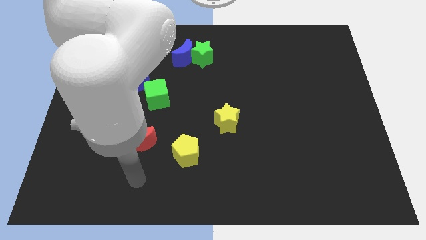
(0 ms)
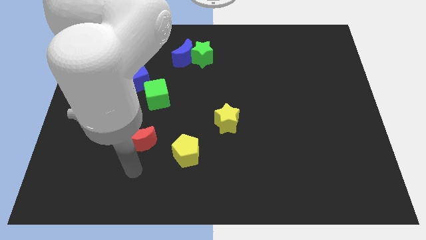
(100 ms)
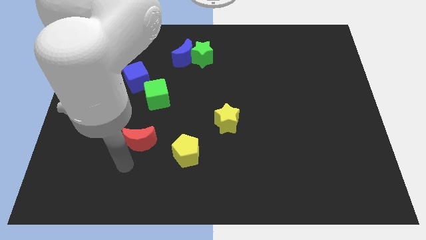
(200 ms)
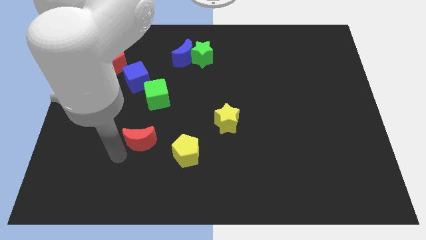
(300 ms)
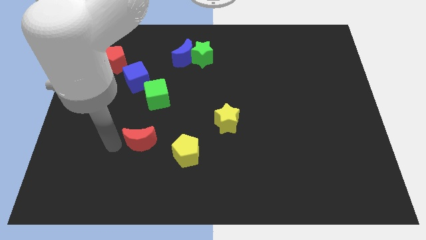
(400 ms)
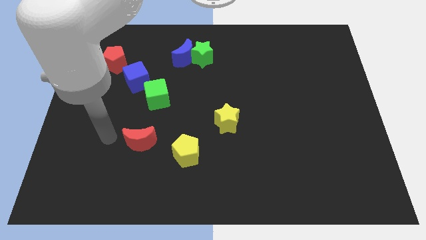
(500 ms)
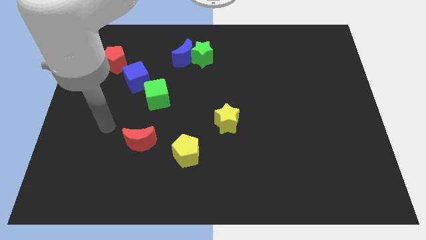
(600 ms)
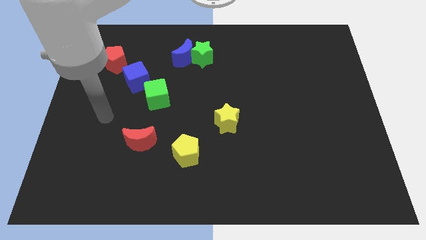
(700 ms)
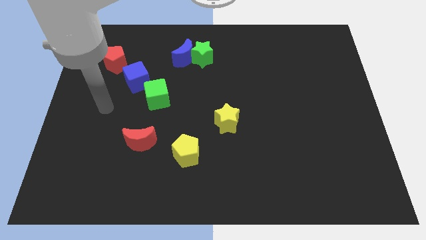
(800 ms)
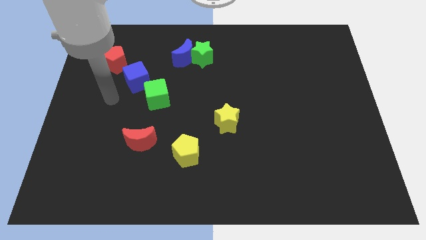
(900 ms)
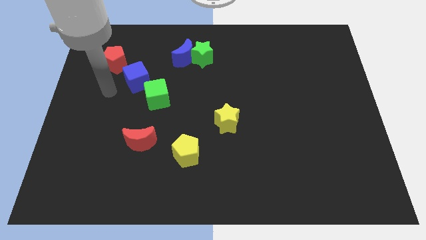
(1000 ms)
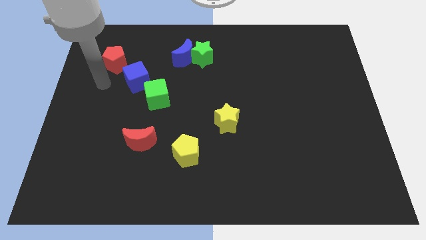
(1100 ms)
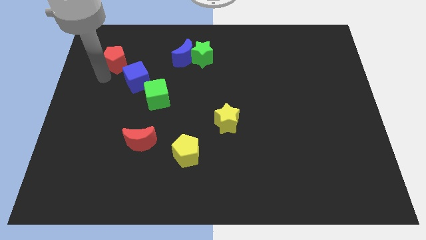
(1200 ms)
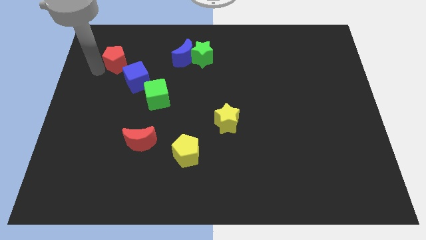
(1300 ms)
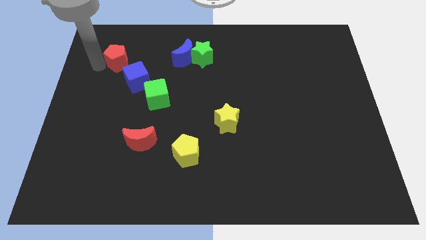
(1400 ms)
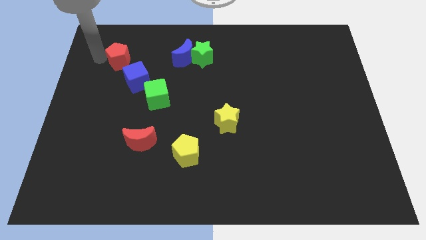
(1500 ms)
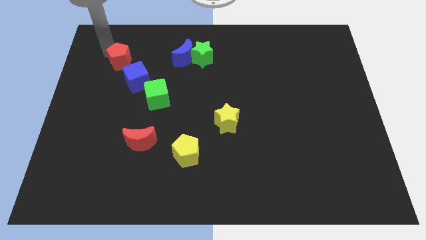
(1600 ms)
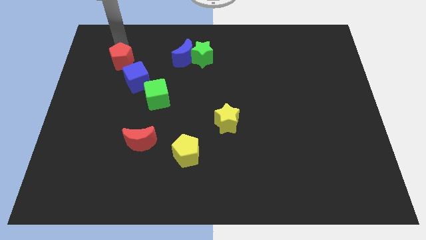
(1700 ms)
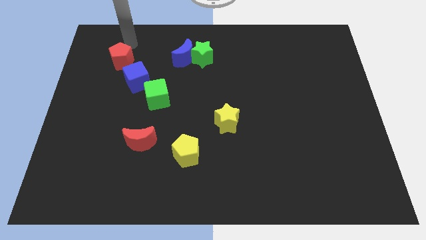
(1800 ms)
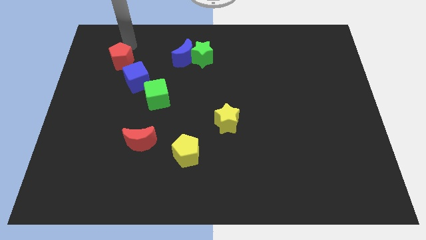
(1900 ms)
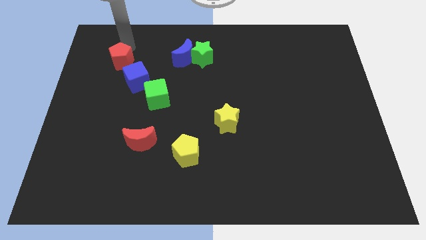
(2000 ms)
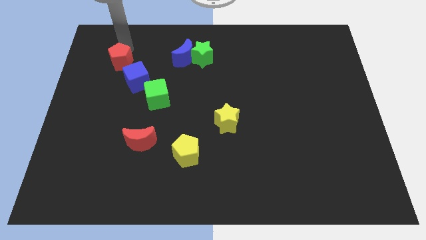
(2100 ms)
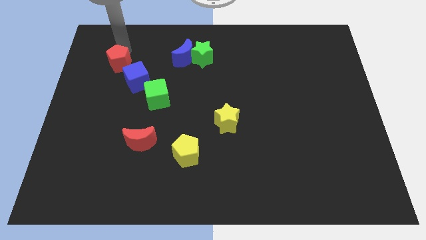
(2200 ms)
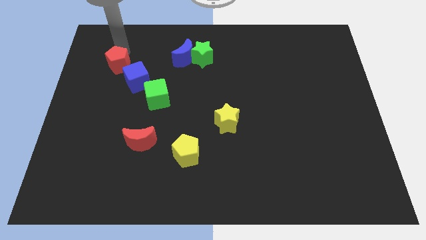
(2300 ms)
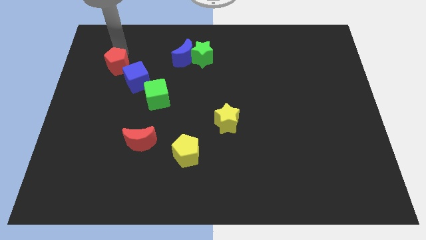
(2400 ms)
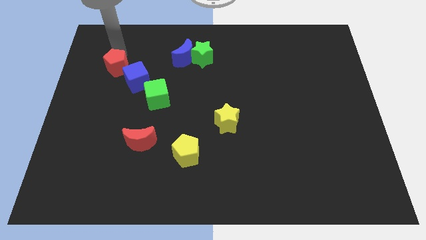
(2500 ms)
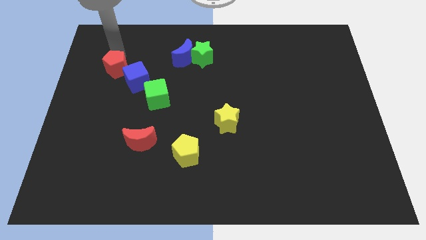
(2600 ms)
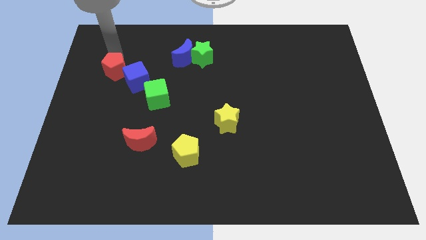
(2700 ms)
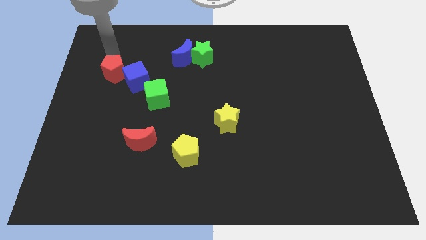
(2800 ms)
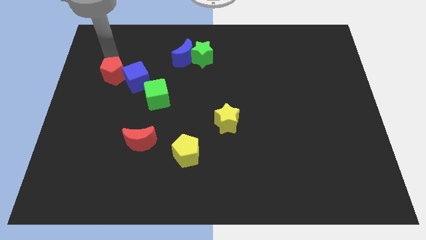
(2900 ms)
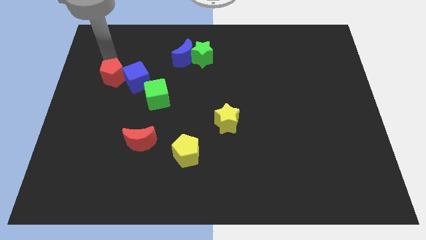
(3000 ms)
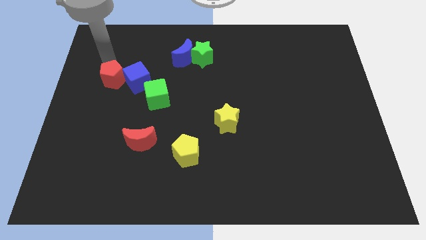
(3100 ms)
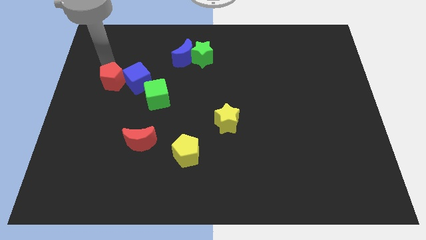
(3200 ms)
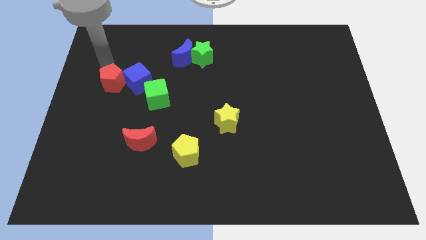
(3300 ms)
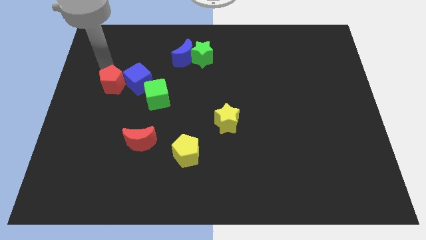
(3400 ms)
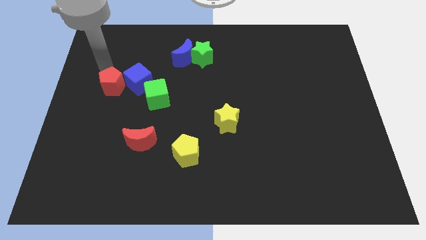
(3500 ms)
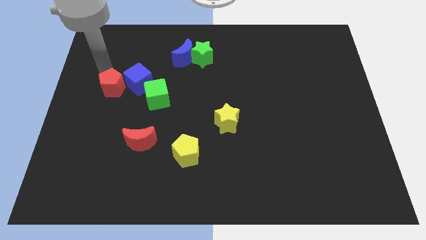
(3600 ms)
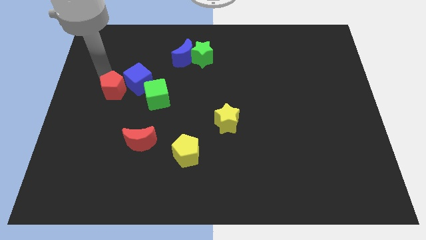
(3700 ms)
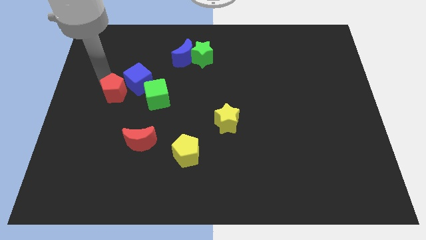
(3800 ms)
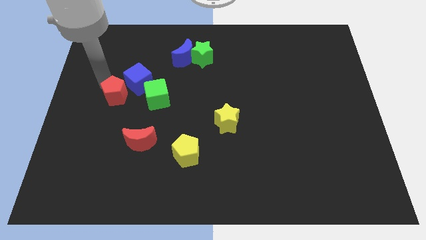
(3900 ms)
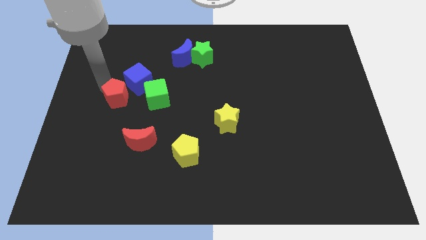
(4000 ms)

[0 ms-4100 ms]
push the red pentagon below the blue cube

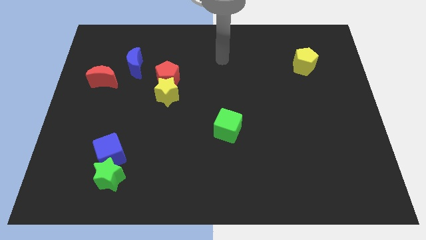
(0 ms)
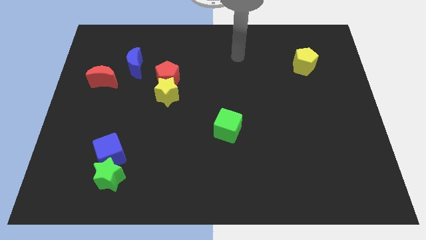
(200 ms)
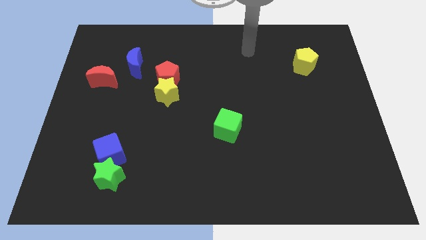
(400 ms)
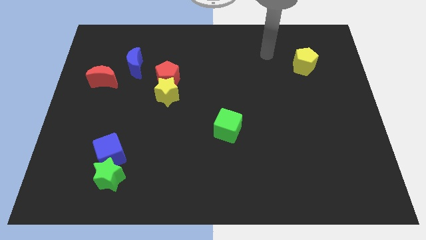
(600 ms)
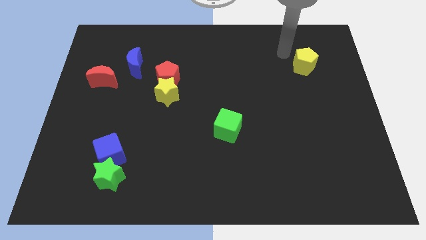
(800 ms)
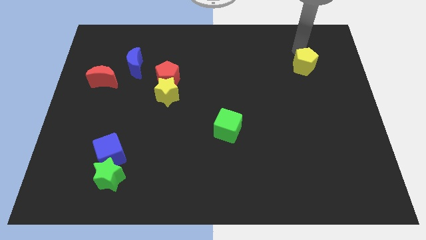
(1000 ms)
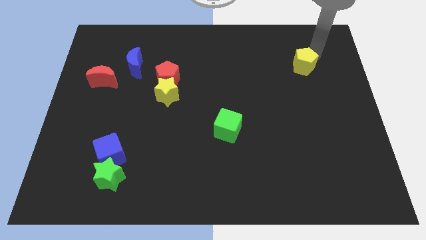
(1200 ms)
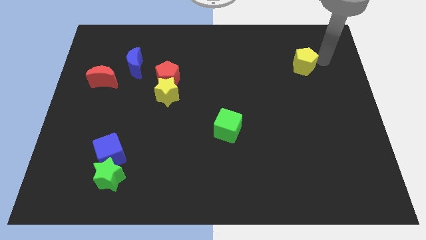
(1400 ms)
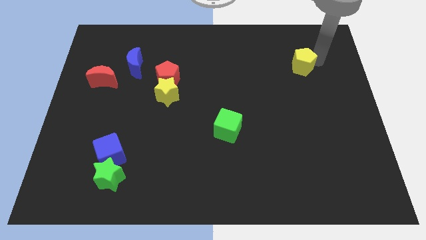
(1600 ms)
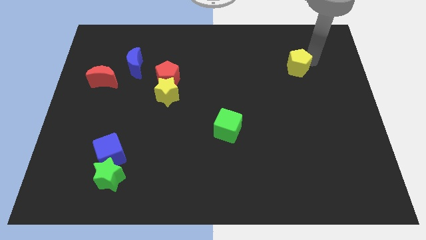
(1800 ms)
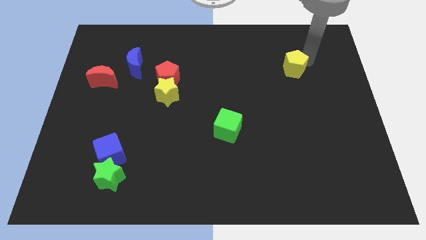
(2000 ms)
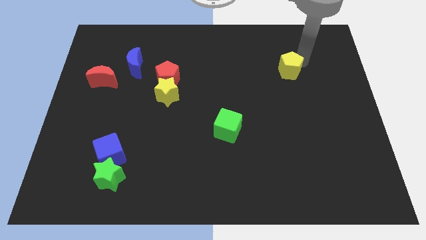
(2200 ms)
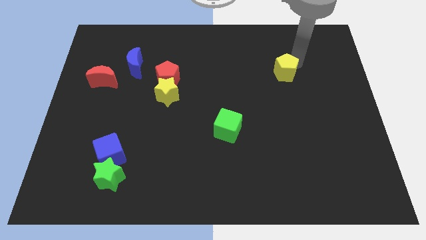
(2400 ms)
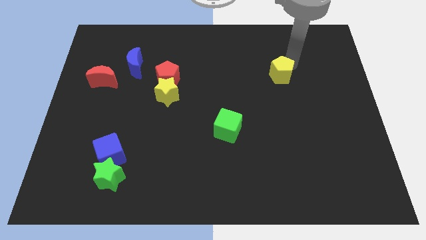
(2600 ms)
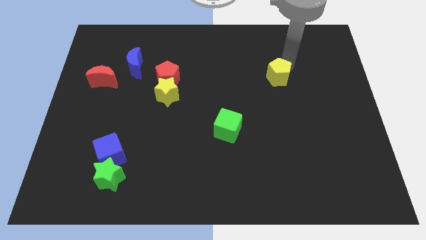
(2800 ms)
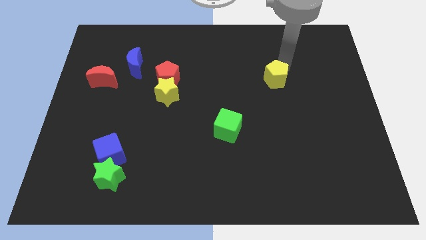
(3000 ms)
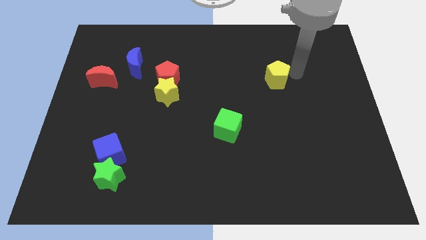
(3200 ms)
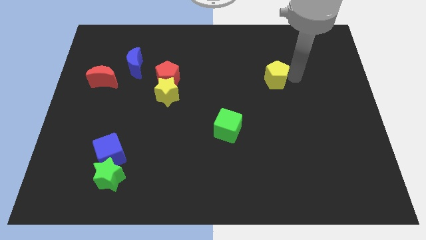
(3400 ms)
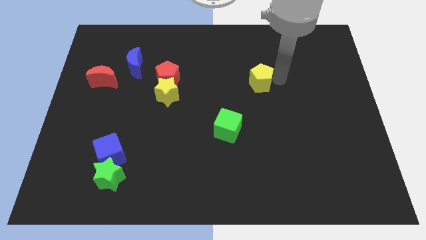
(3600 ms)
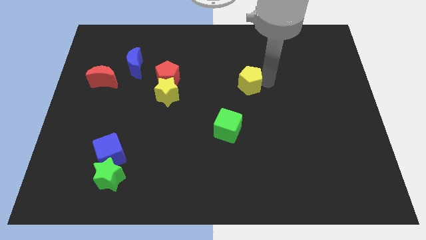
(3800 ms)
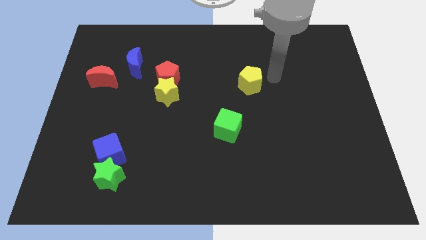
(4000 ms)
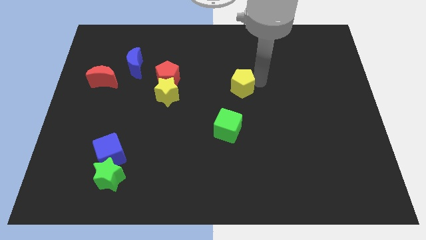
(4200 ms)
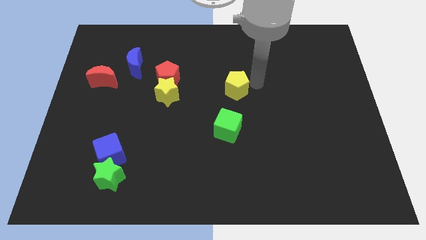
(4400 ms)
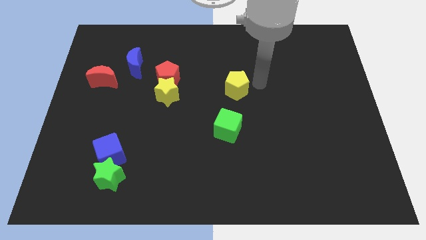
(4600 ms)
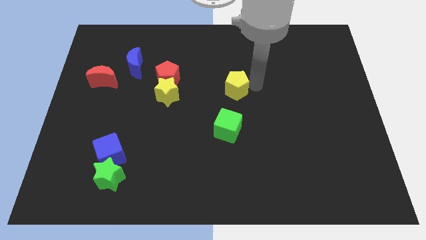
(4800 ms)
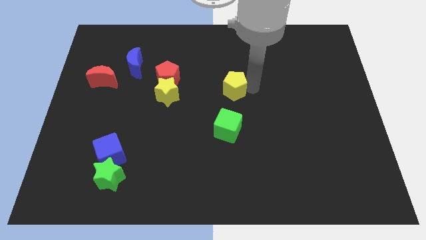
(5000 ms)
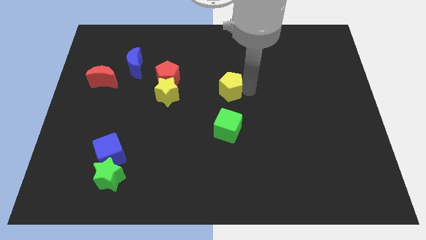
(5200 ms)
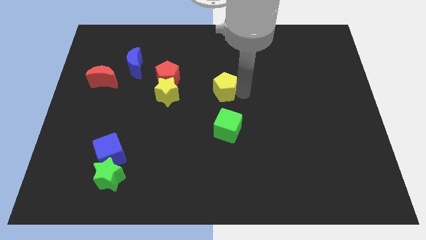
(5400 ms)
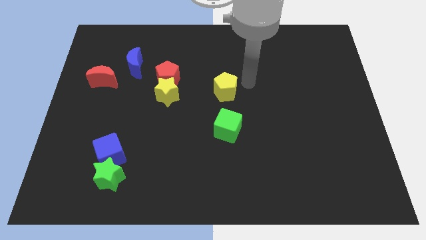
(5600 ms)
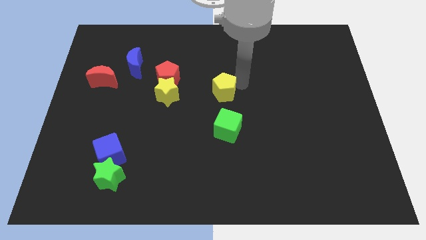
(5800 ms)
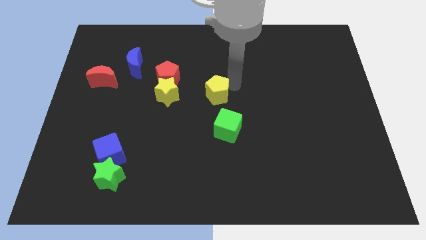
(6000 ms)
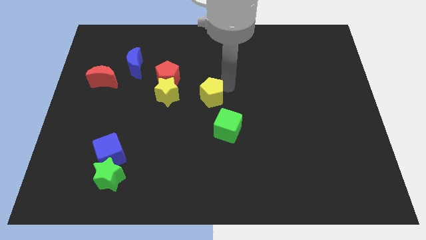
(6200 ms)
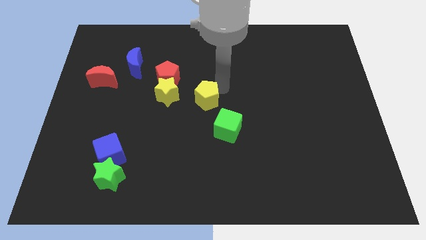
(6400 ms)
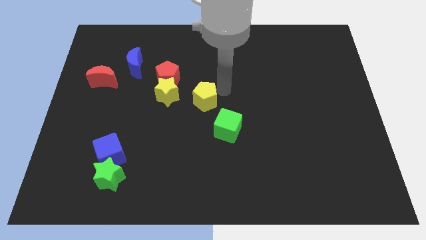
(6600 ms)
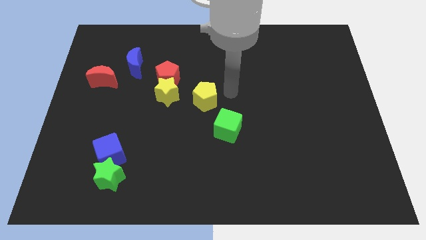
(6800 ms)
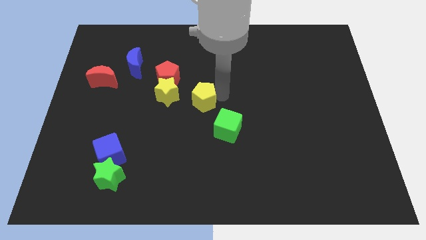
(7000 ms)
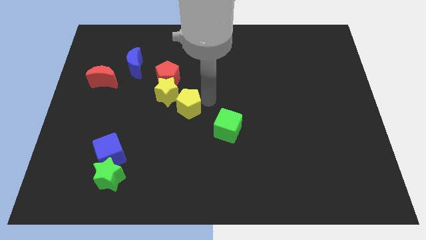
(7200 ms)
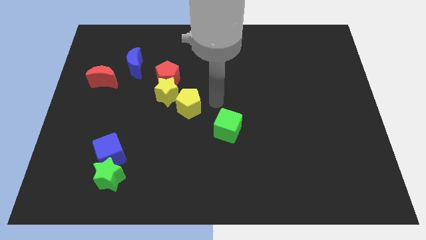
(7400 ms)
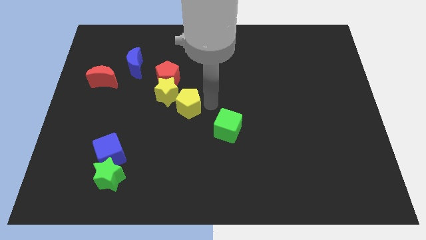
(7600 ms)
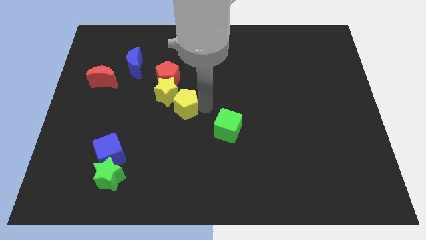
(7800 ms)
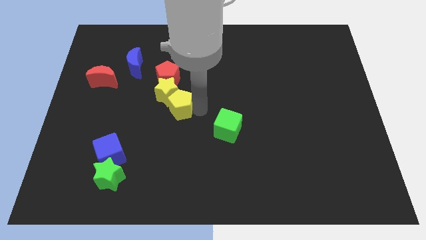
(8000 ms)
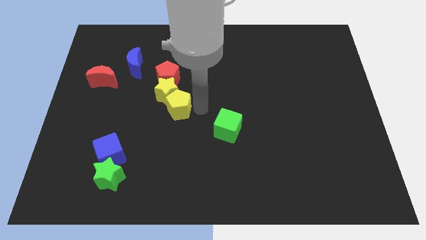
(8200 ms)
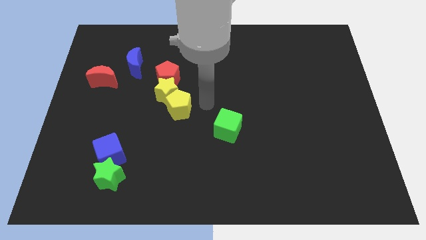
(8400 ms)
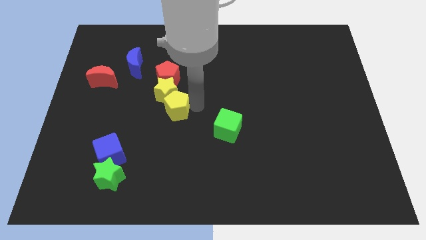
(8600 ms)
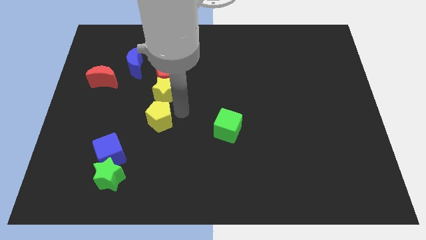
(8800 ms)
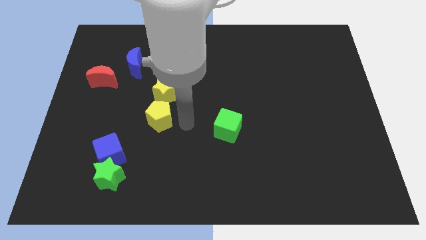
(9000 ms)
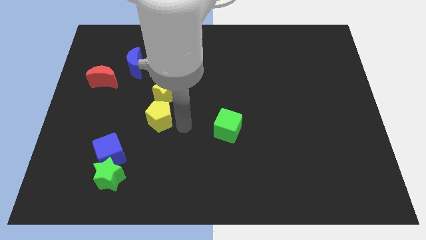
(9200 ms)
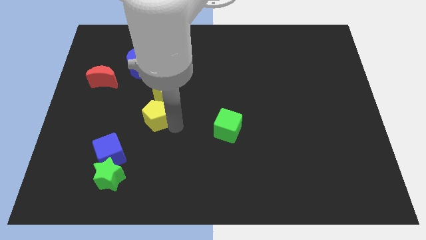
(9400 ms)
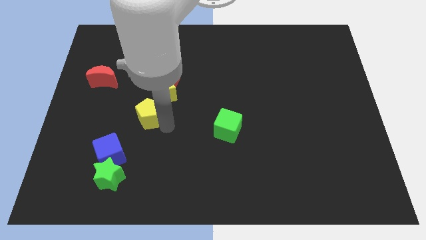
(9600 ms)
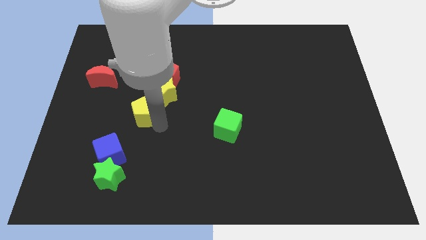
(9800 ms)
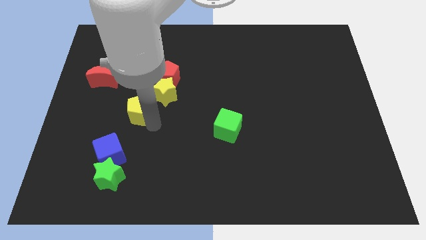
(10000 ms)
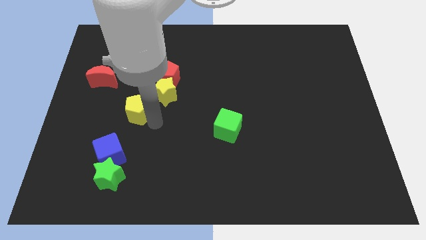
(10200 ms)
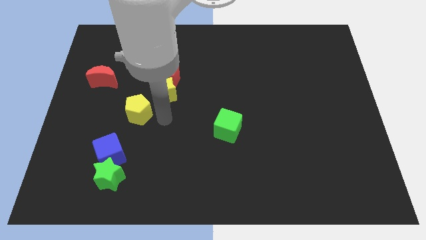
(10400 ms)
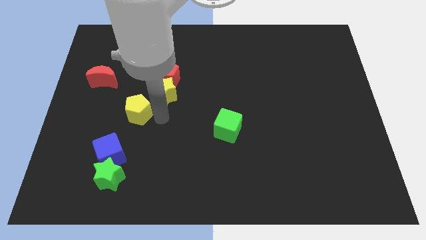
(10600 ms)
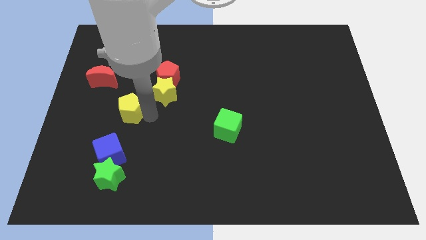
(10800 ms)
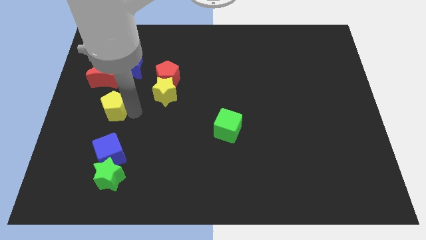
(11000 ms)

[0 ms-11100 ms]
push the yellow pentagon below the red moon
